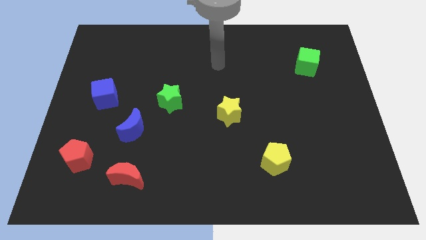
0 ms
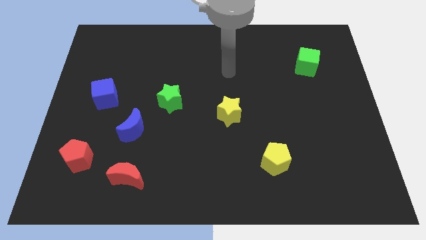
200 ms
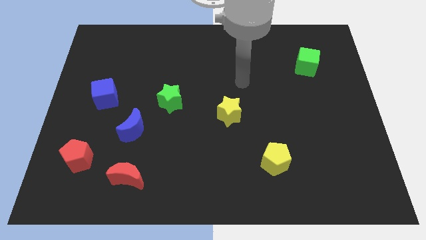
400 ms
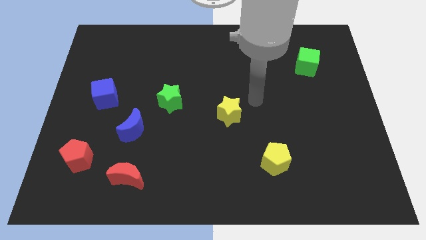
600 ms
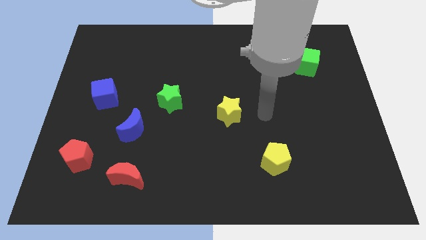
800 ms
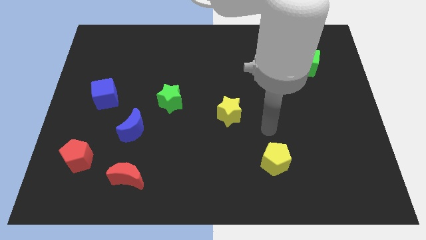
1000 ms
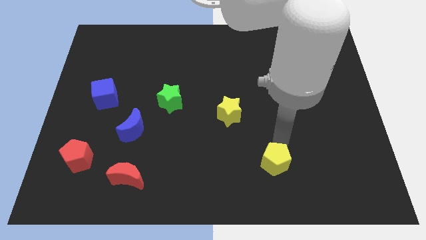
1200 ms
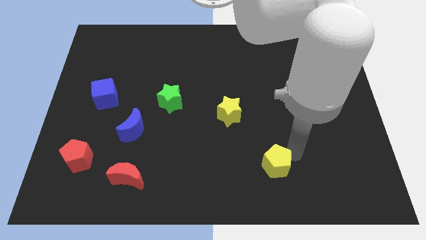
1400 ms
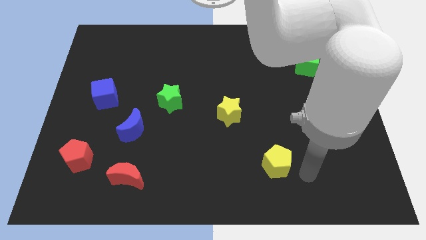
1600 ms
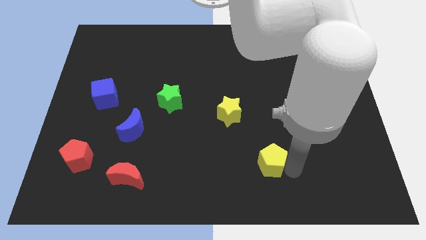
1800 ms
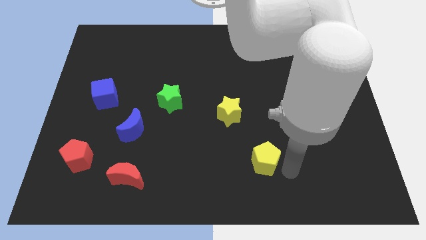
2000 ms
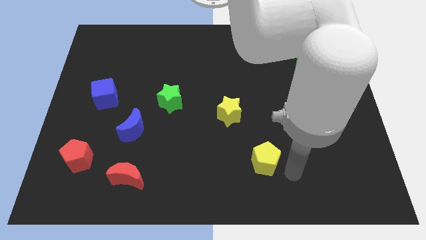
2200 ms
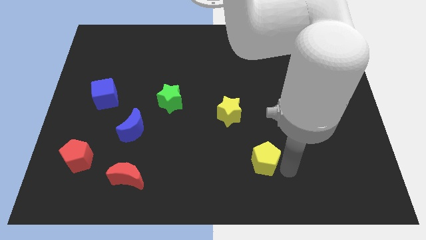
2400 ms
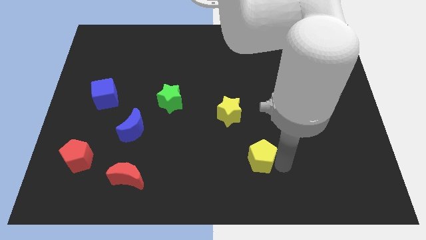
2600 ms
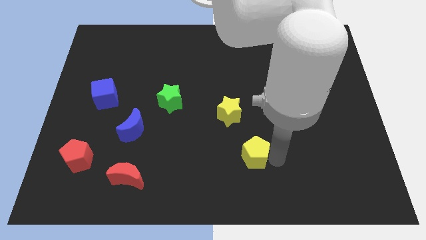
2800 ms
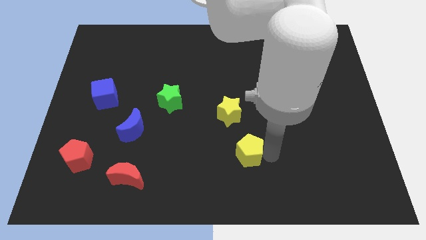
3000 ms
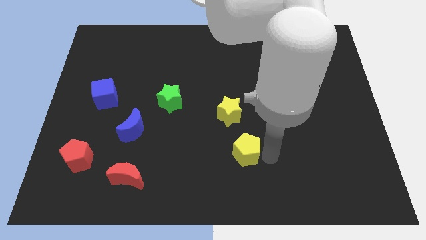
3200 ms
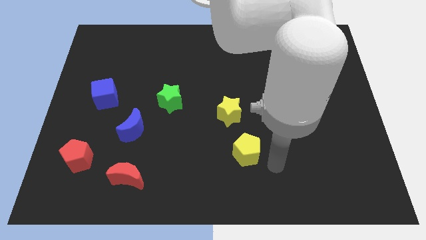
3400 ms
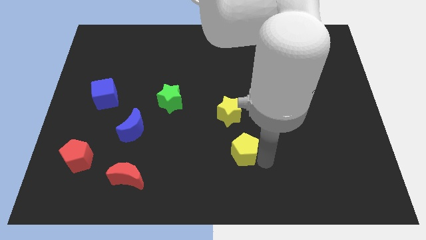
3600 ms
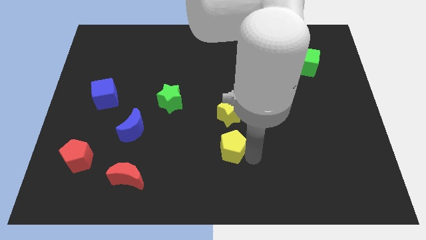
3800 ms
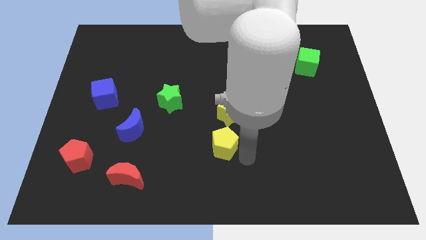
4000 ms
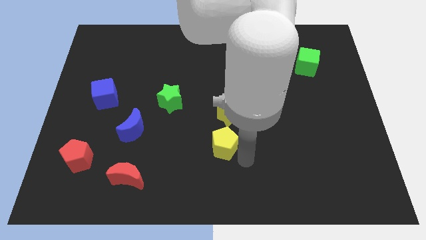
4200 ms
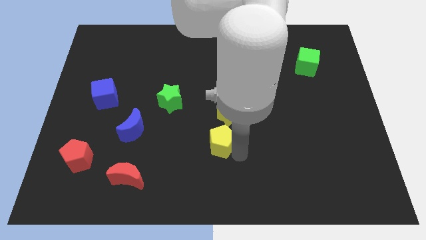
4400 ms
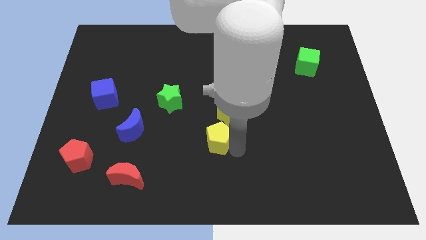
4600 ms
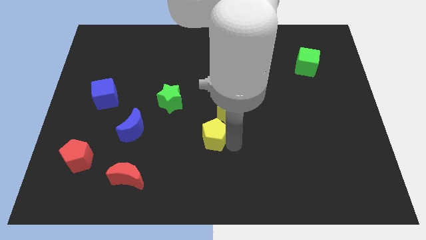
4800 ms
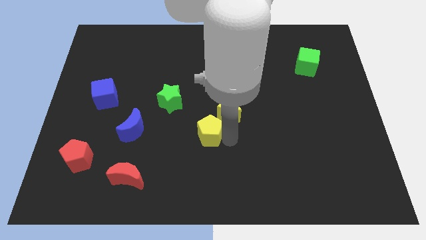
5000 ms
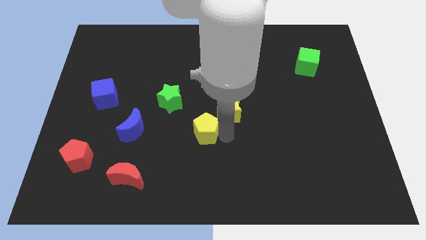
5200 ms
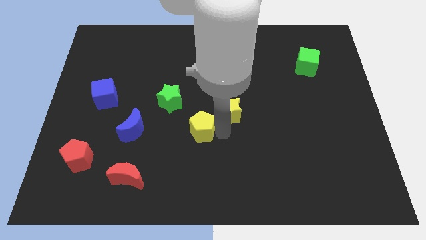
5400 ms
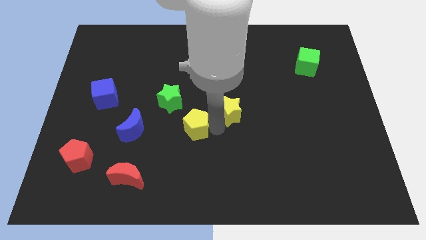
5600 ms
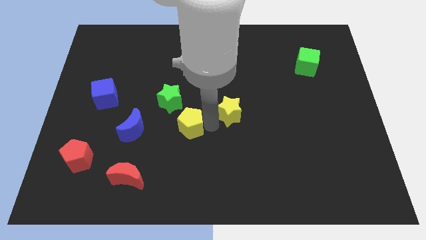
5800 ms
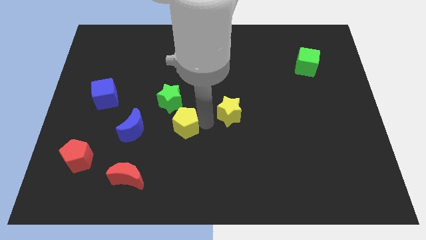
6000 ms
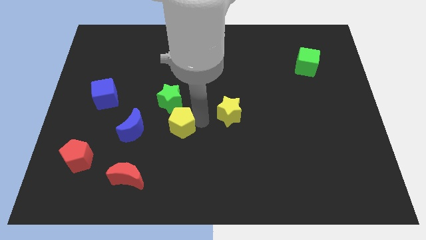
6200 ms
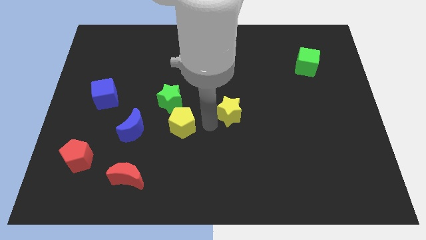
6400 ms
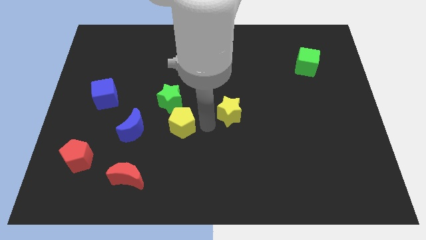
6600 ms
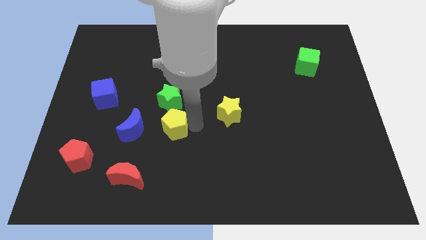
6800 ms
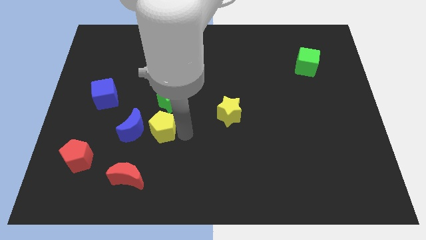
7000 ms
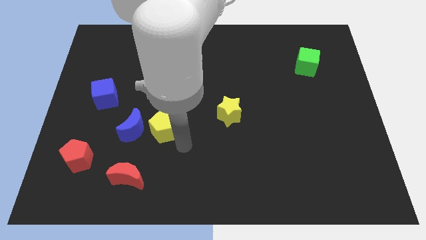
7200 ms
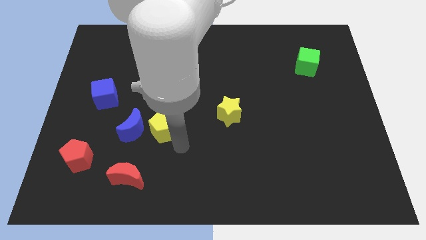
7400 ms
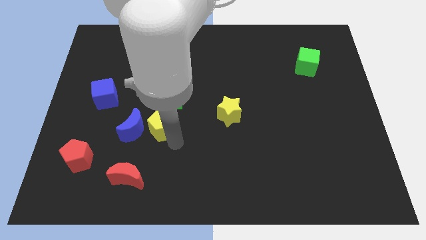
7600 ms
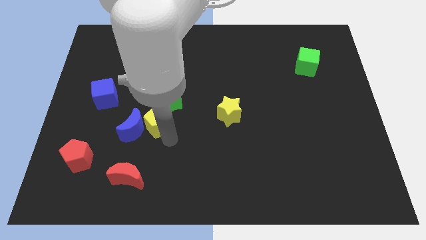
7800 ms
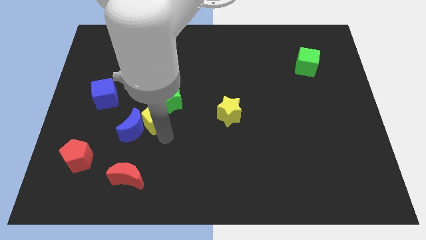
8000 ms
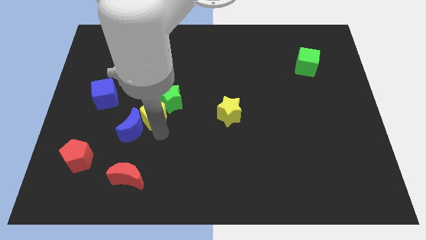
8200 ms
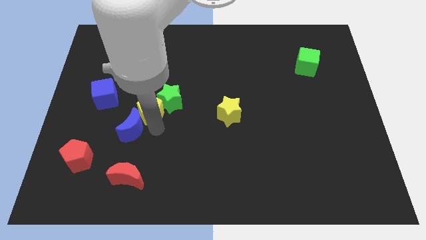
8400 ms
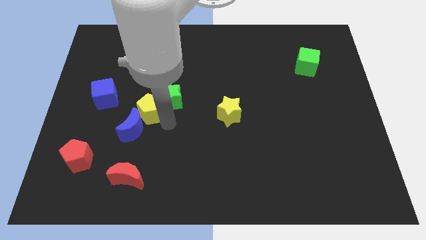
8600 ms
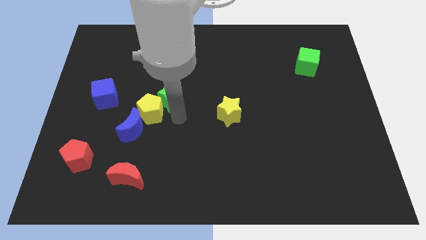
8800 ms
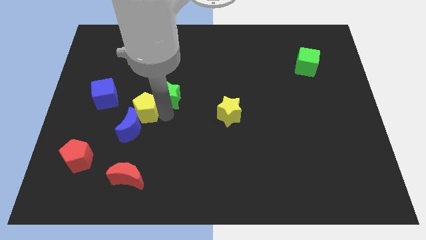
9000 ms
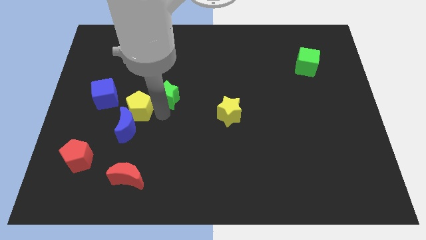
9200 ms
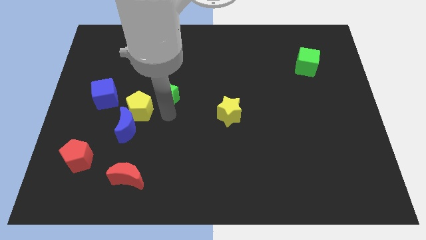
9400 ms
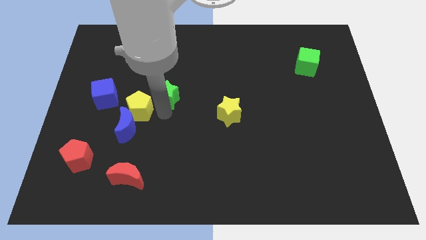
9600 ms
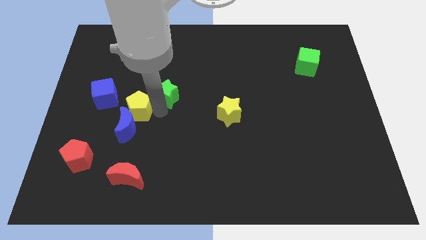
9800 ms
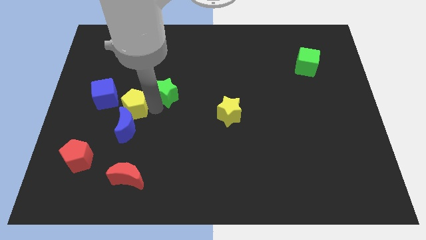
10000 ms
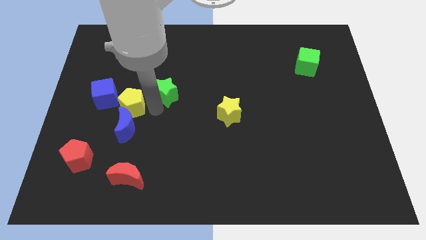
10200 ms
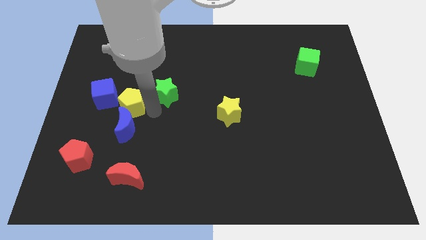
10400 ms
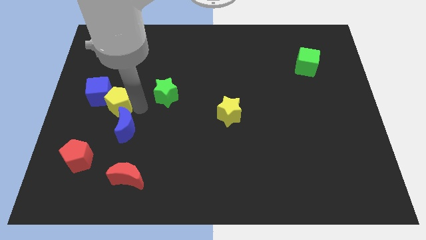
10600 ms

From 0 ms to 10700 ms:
push the yellow pentagon to the blue cube

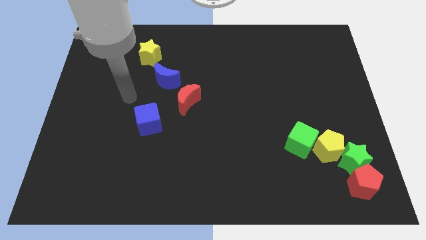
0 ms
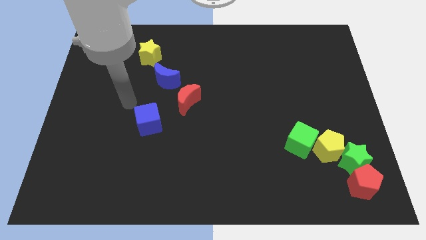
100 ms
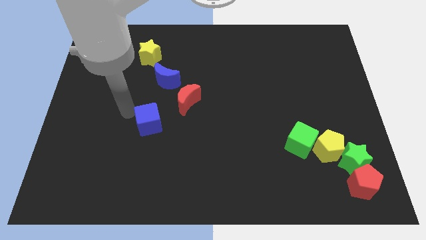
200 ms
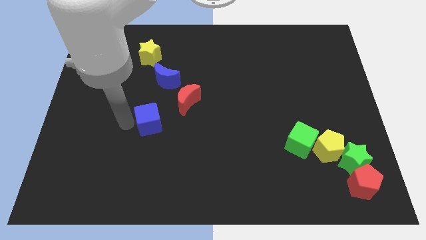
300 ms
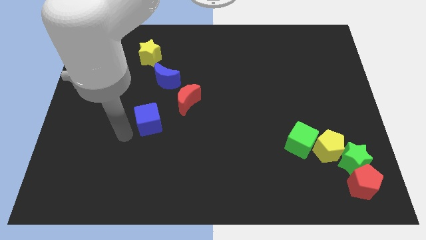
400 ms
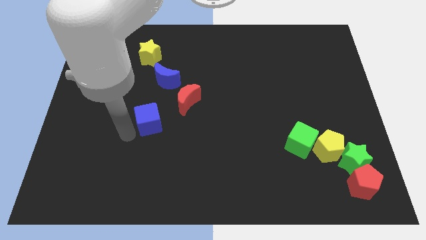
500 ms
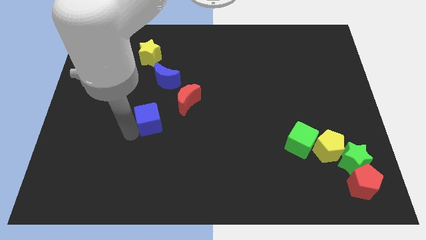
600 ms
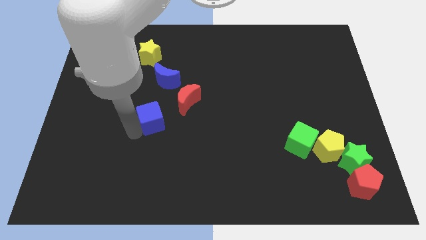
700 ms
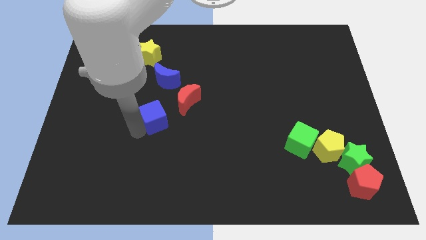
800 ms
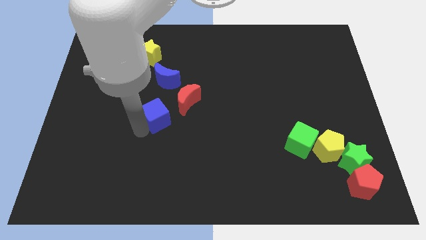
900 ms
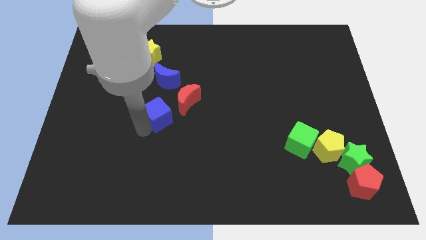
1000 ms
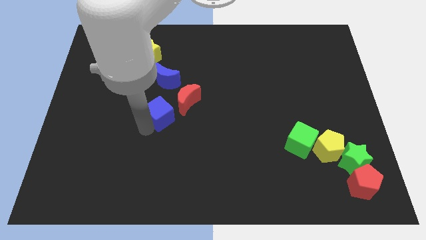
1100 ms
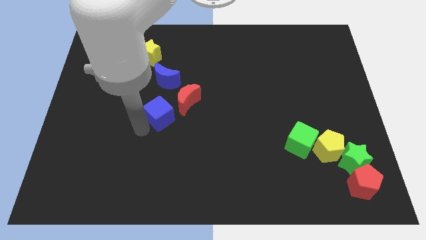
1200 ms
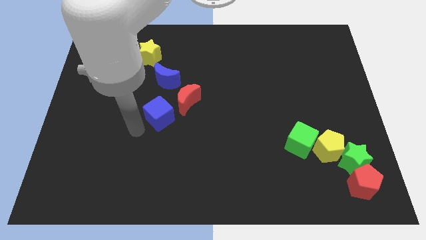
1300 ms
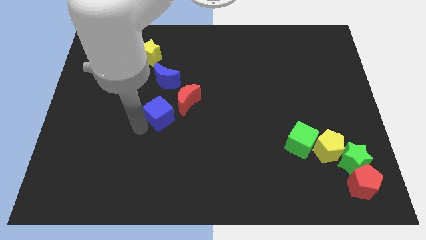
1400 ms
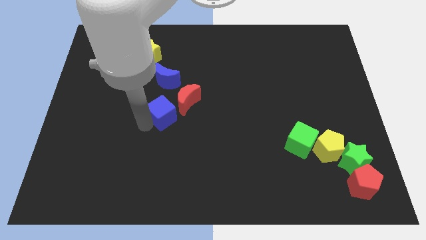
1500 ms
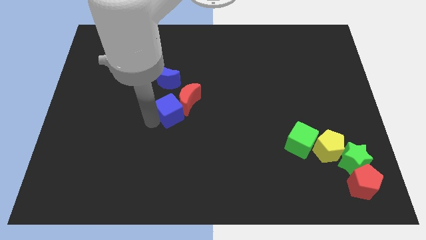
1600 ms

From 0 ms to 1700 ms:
put the blue cube to the red moon
